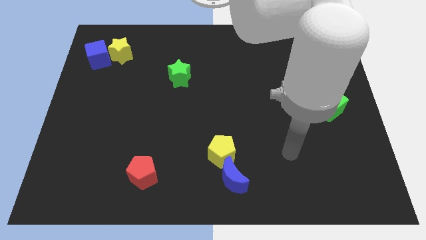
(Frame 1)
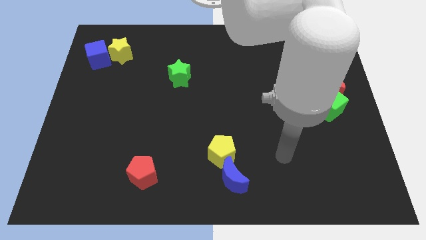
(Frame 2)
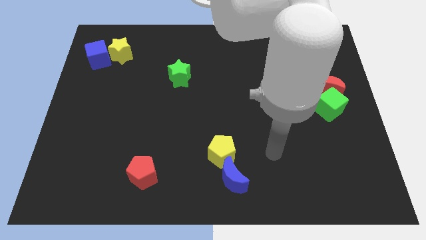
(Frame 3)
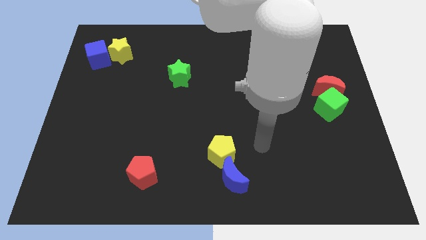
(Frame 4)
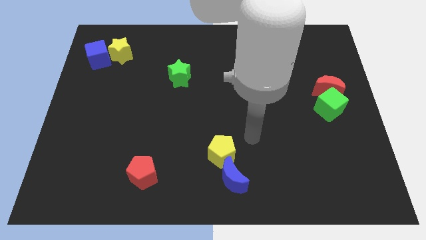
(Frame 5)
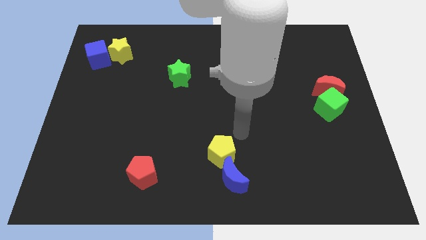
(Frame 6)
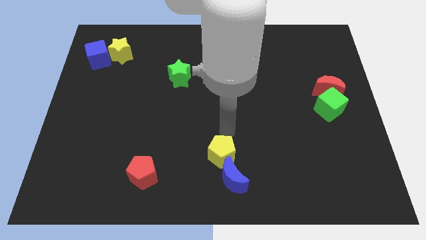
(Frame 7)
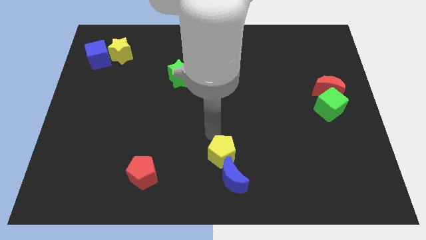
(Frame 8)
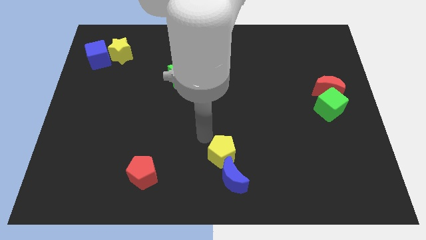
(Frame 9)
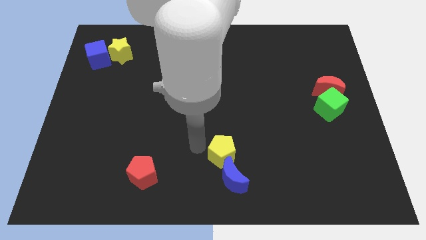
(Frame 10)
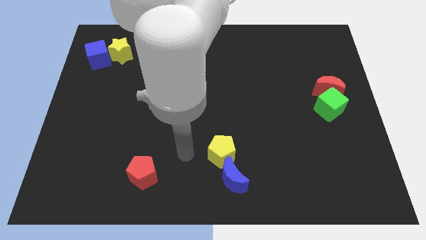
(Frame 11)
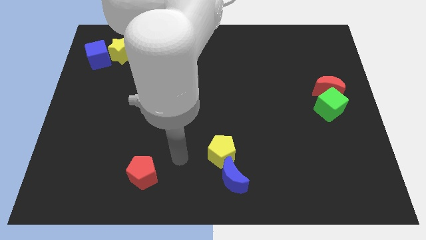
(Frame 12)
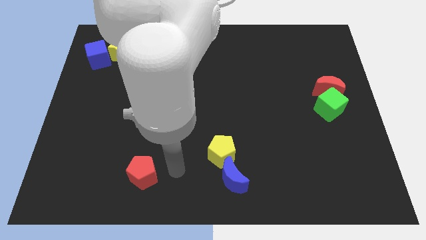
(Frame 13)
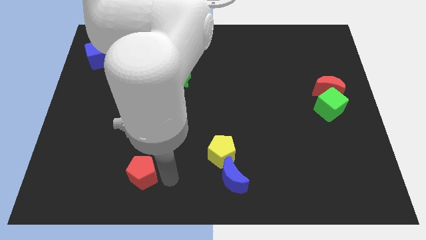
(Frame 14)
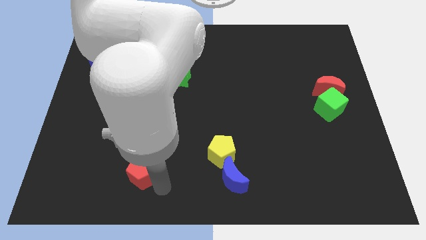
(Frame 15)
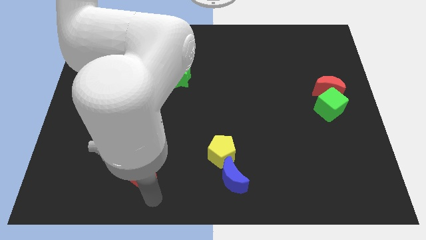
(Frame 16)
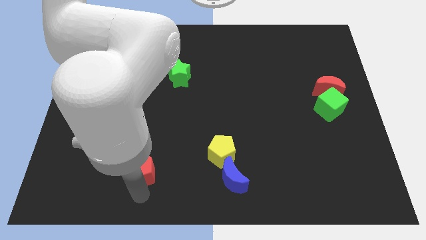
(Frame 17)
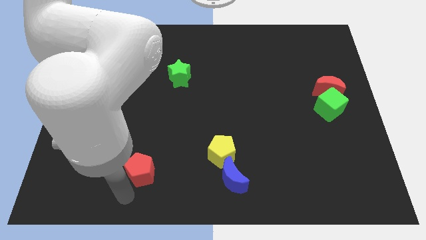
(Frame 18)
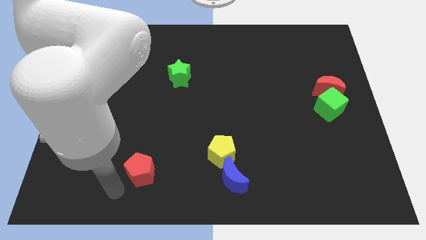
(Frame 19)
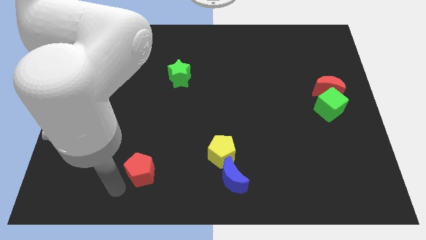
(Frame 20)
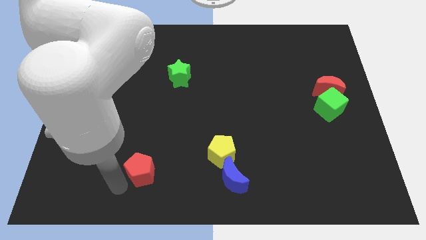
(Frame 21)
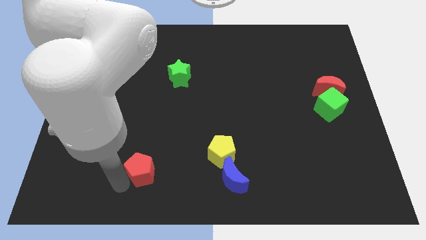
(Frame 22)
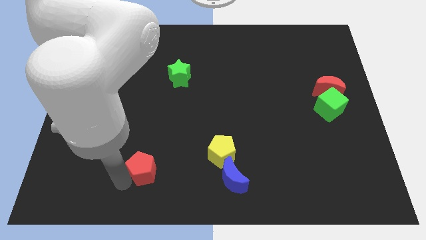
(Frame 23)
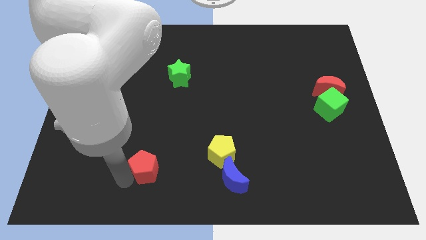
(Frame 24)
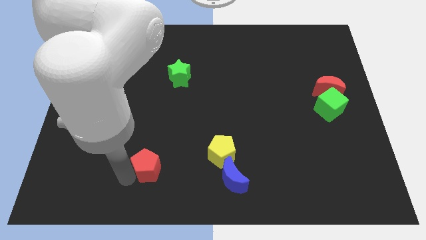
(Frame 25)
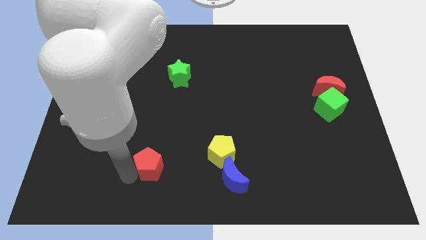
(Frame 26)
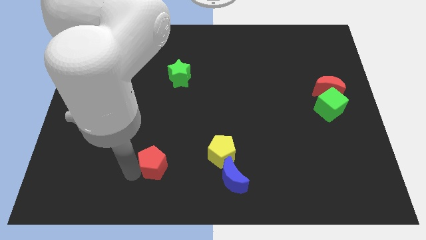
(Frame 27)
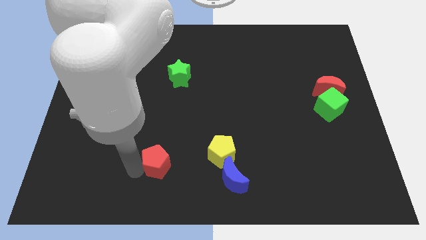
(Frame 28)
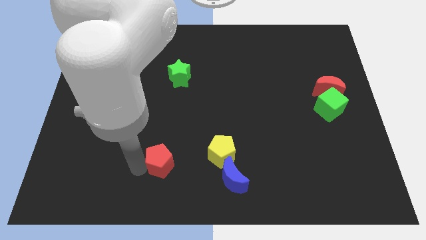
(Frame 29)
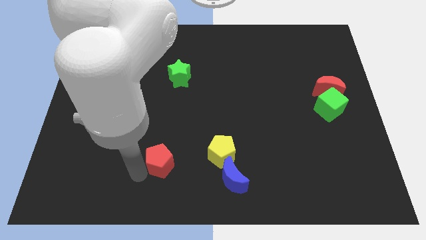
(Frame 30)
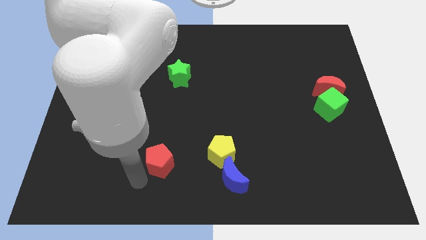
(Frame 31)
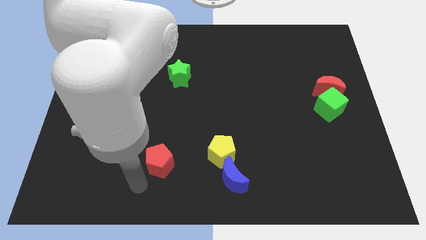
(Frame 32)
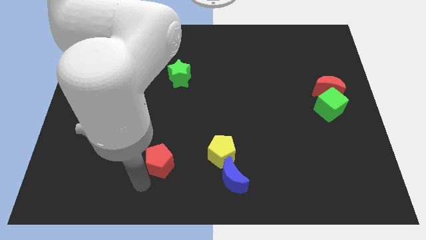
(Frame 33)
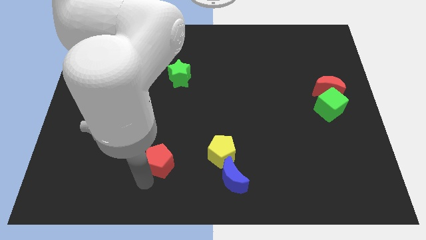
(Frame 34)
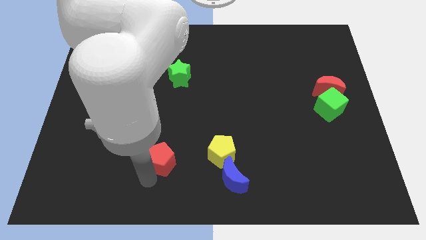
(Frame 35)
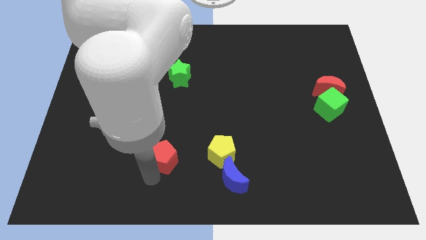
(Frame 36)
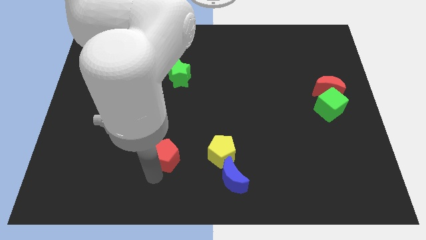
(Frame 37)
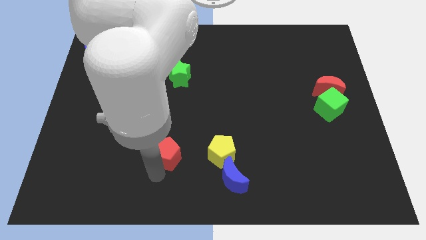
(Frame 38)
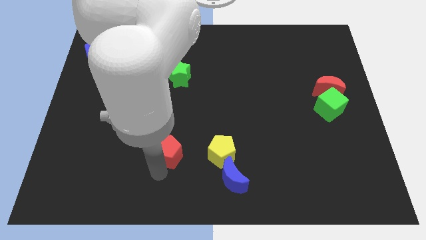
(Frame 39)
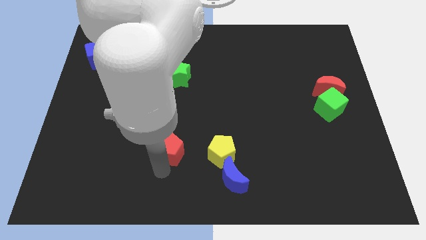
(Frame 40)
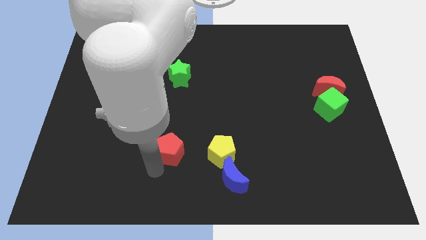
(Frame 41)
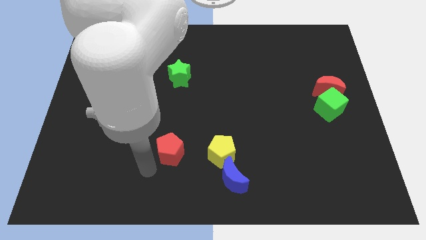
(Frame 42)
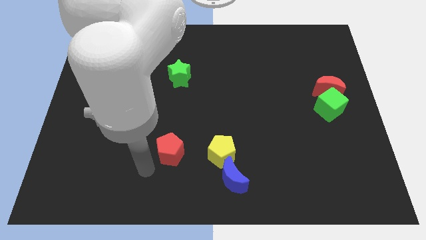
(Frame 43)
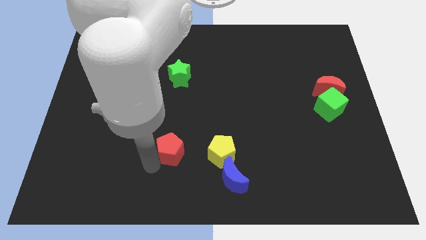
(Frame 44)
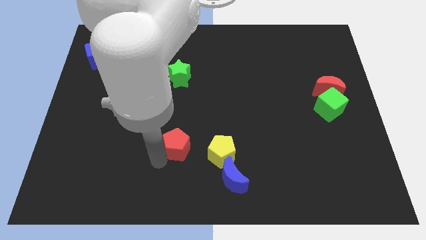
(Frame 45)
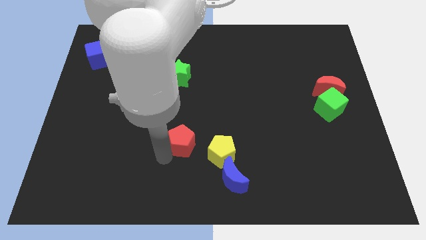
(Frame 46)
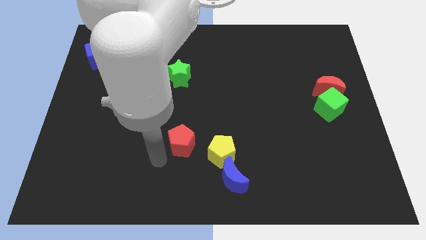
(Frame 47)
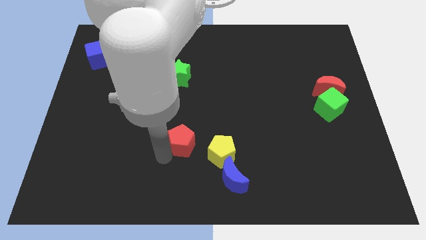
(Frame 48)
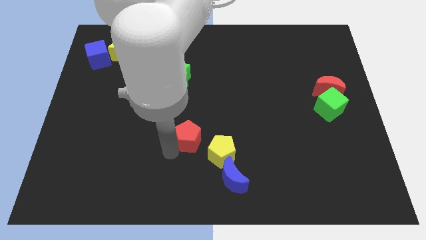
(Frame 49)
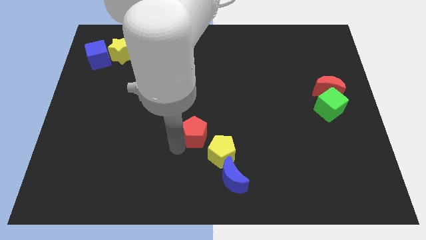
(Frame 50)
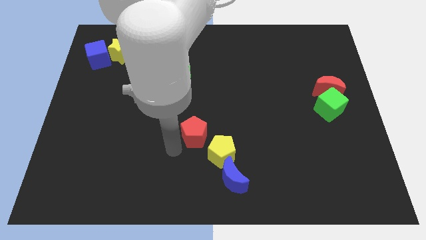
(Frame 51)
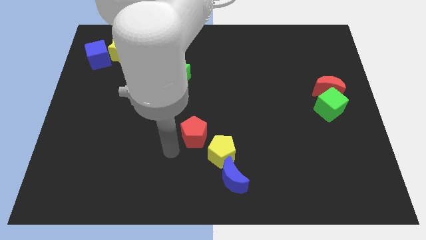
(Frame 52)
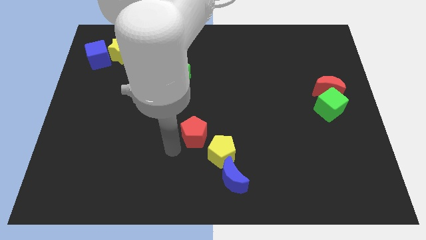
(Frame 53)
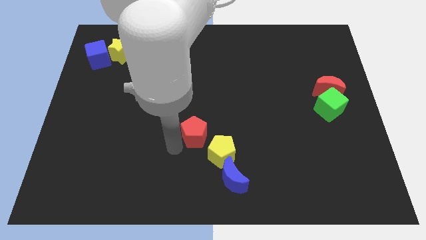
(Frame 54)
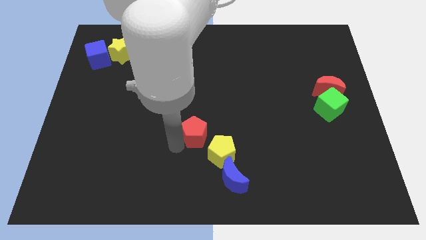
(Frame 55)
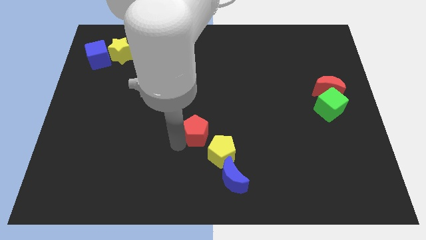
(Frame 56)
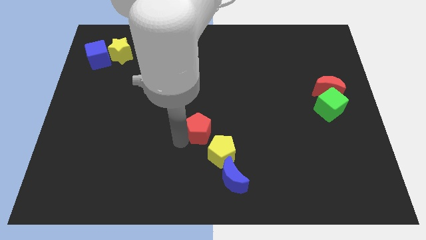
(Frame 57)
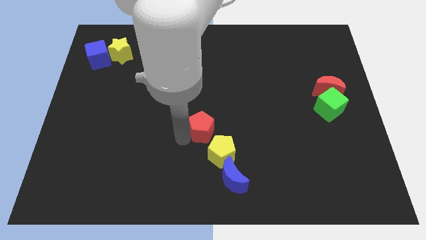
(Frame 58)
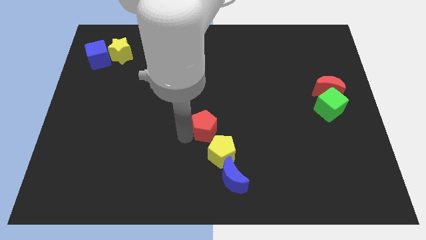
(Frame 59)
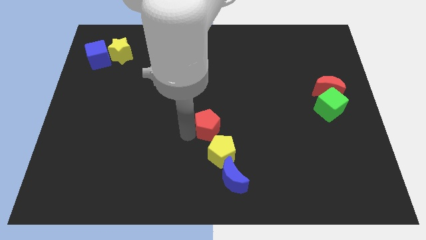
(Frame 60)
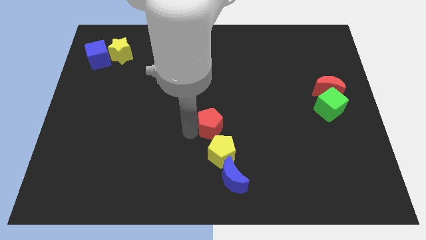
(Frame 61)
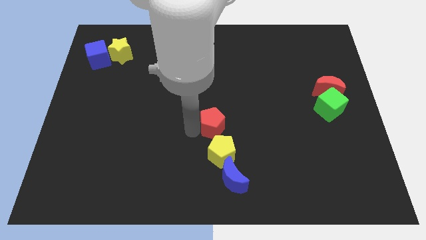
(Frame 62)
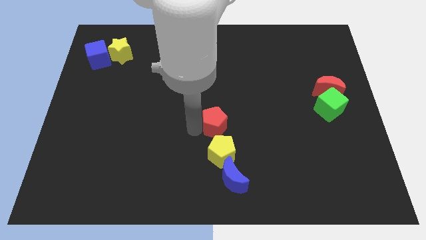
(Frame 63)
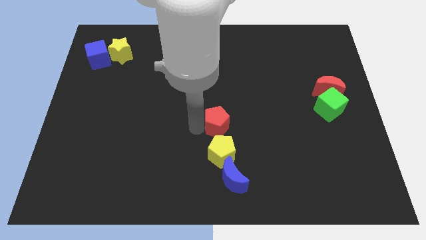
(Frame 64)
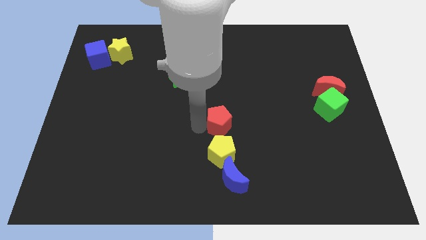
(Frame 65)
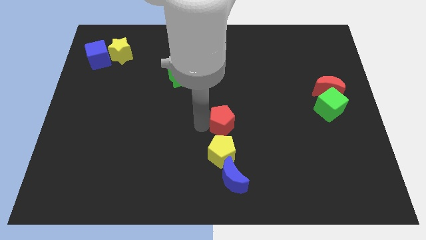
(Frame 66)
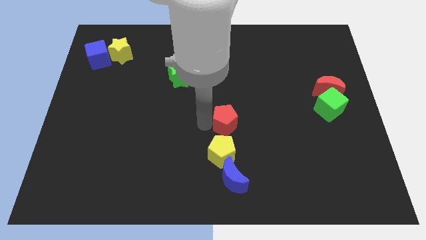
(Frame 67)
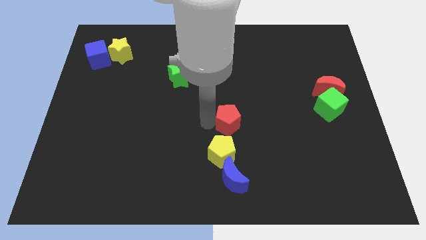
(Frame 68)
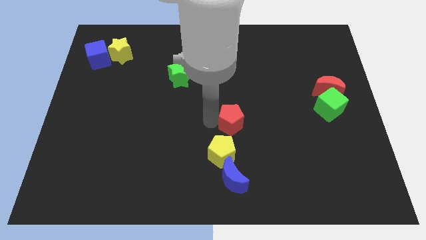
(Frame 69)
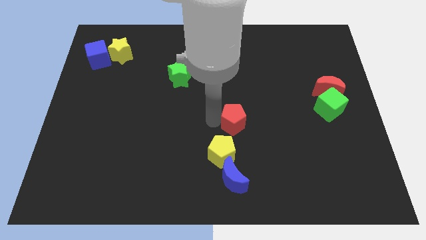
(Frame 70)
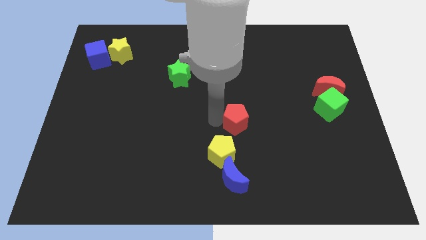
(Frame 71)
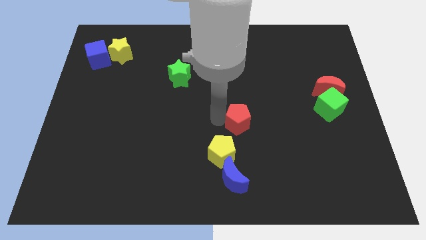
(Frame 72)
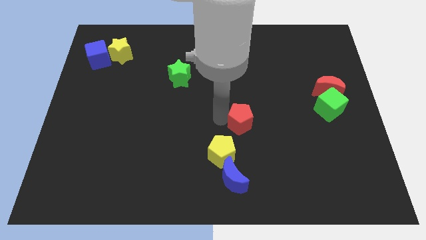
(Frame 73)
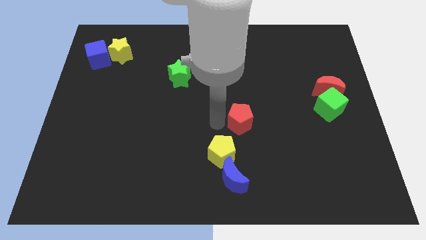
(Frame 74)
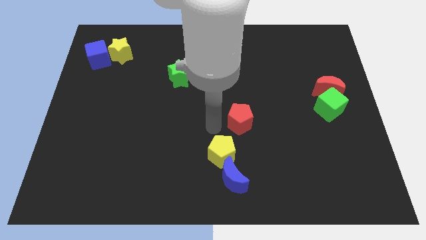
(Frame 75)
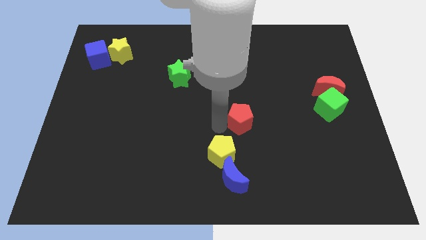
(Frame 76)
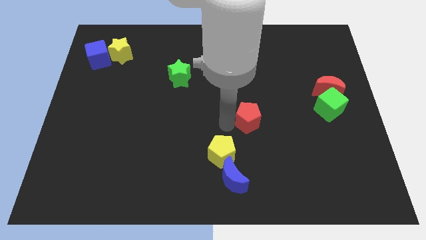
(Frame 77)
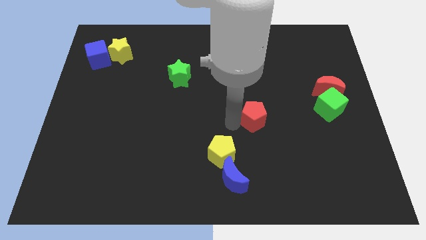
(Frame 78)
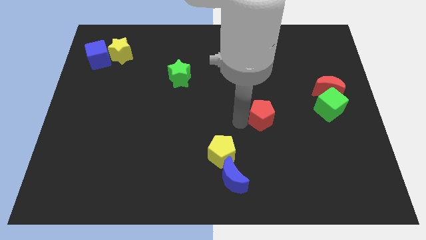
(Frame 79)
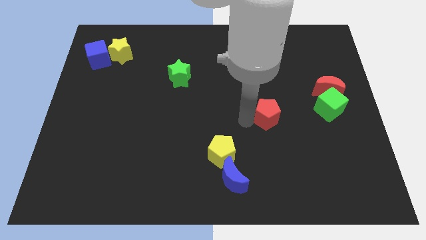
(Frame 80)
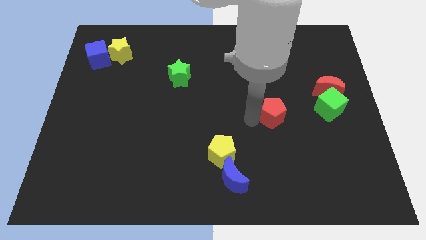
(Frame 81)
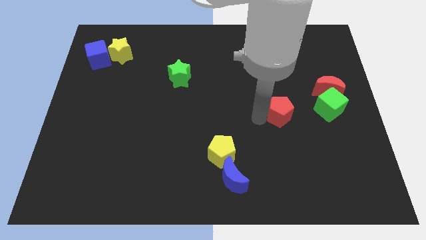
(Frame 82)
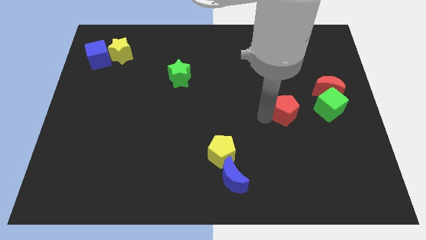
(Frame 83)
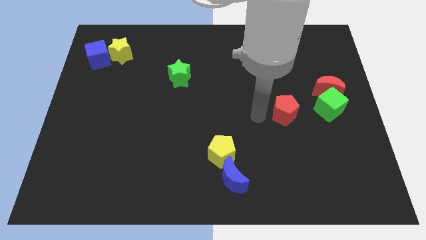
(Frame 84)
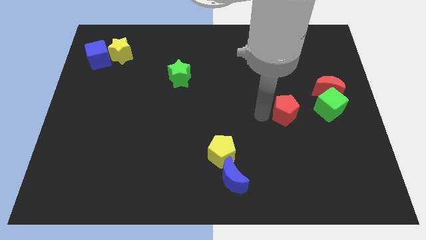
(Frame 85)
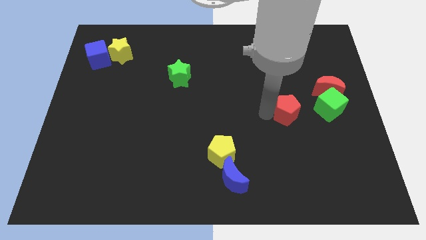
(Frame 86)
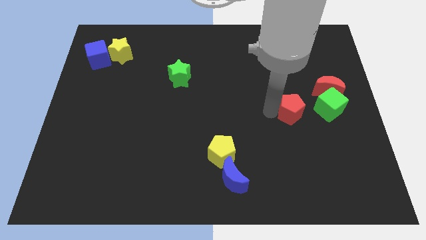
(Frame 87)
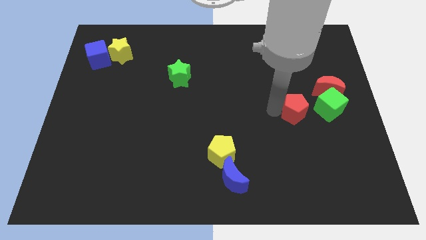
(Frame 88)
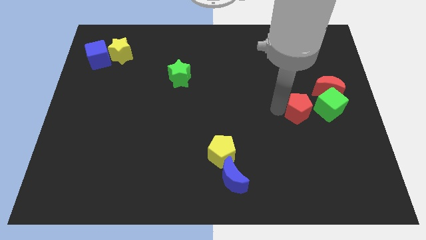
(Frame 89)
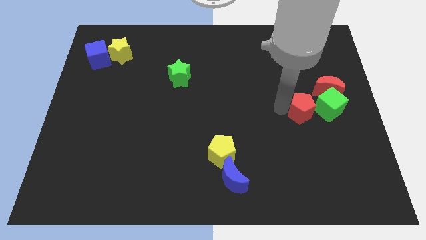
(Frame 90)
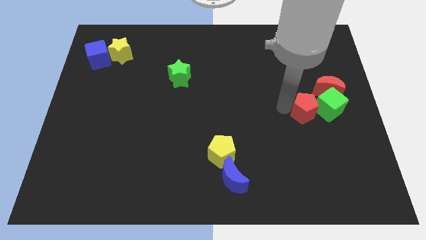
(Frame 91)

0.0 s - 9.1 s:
put the red pentagon to the green cube
